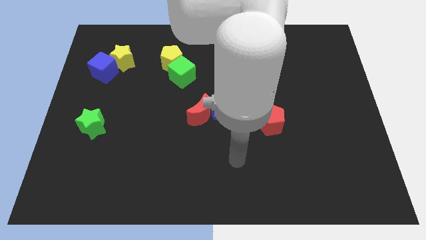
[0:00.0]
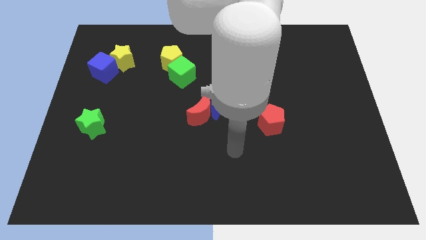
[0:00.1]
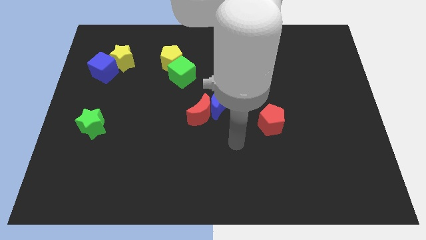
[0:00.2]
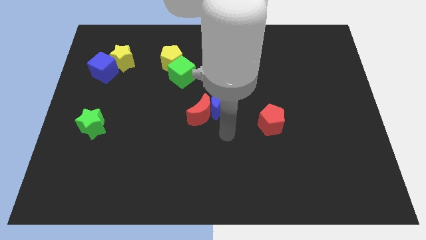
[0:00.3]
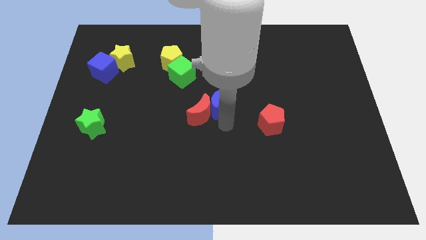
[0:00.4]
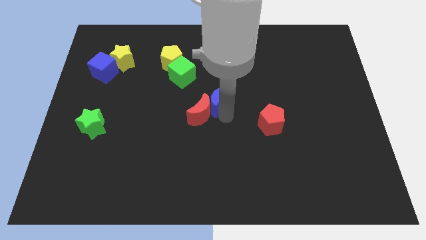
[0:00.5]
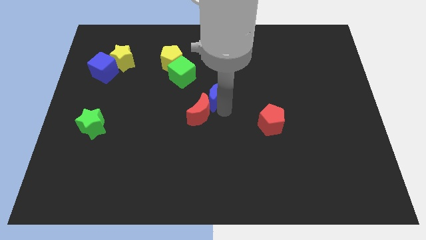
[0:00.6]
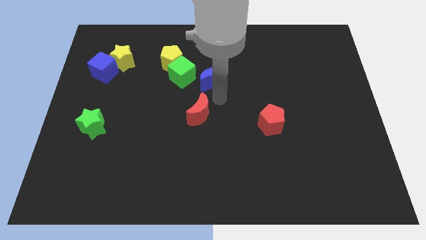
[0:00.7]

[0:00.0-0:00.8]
move the red moon away from the blue moon

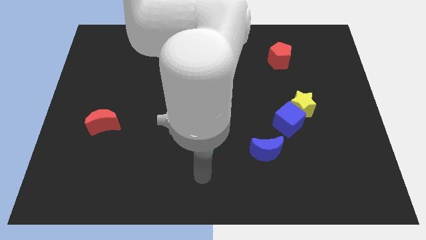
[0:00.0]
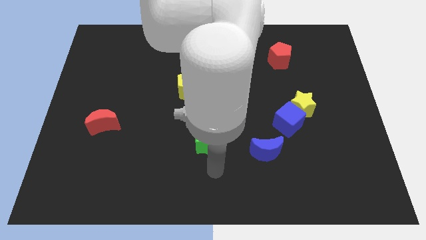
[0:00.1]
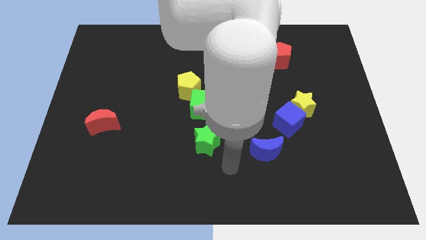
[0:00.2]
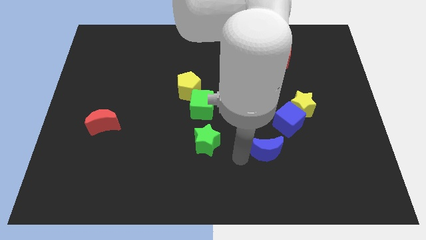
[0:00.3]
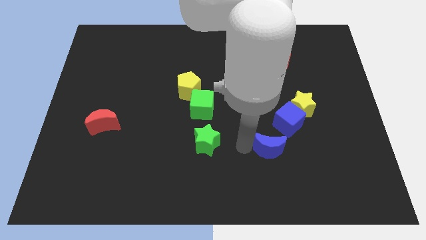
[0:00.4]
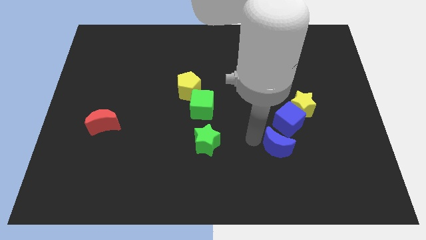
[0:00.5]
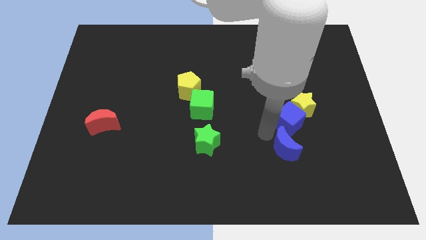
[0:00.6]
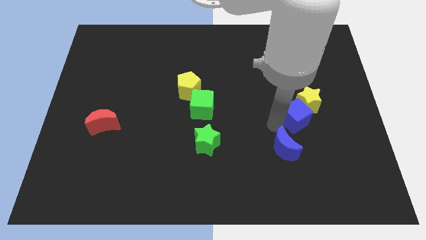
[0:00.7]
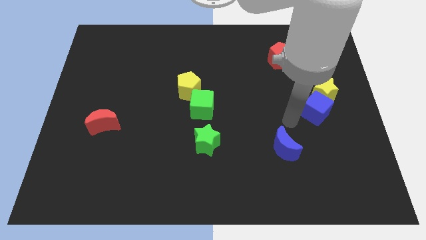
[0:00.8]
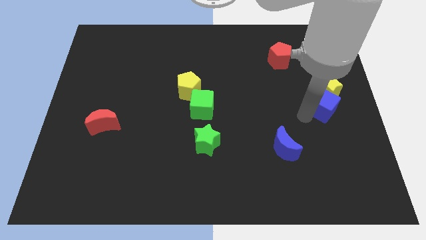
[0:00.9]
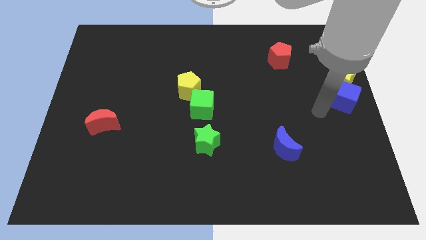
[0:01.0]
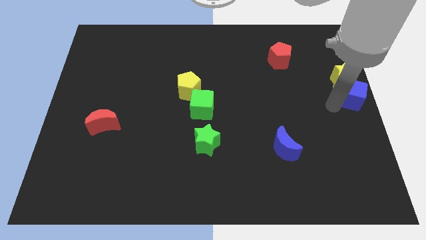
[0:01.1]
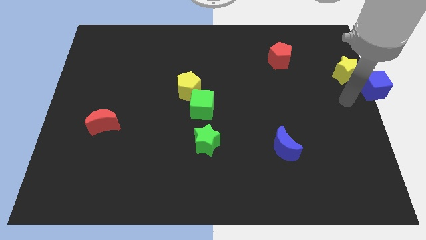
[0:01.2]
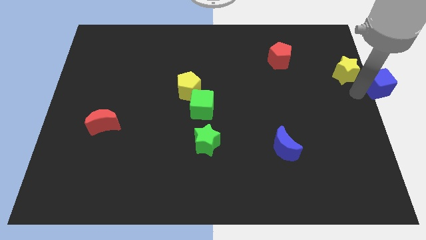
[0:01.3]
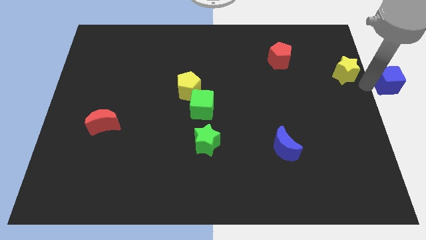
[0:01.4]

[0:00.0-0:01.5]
pull the yellow star apart from the blue cube

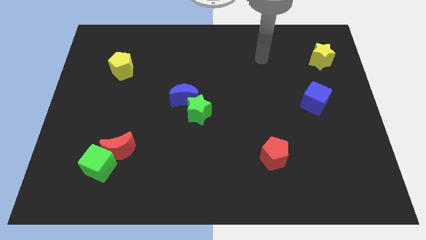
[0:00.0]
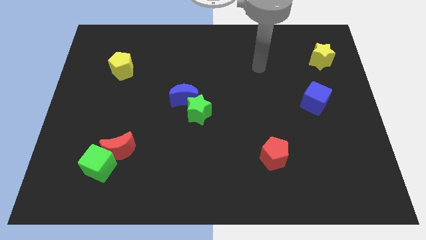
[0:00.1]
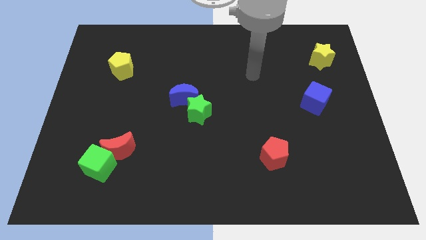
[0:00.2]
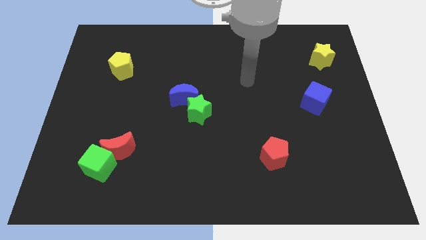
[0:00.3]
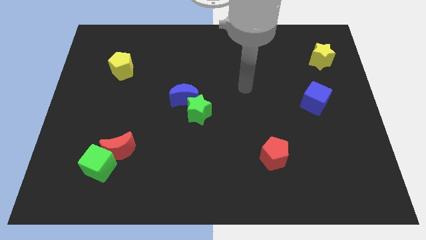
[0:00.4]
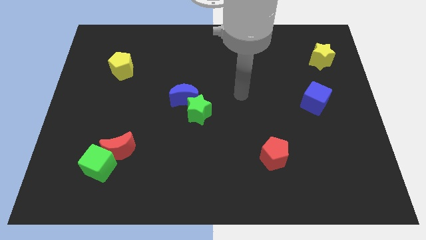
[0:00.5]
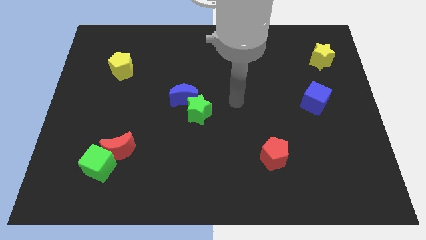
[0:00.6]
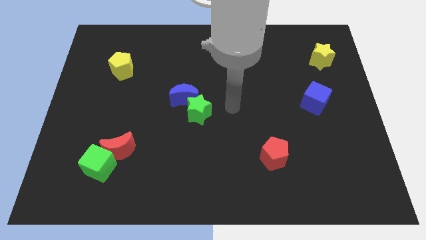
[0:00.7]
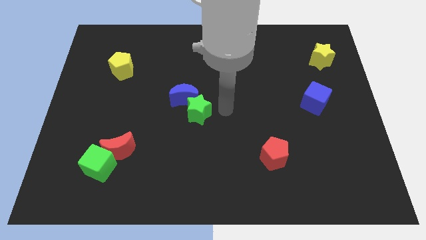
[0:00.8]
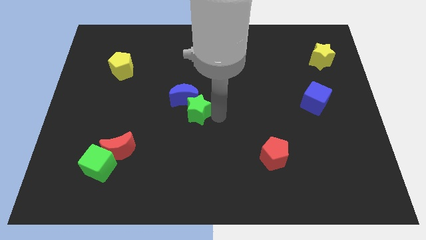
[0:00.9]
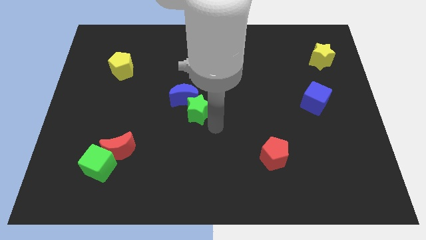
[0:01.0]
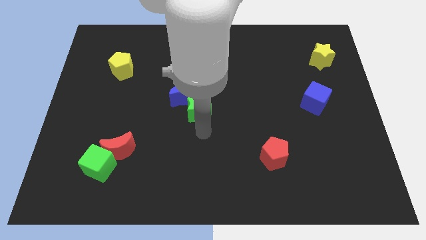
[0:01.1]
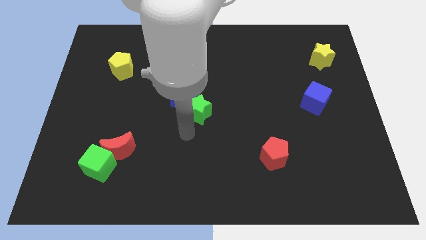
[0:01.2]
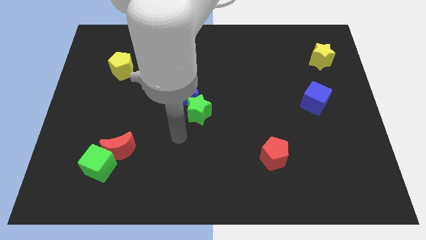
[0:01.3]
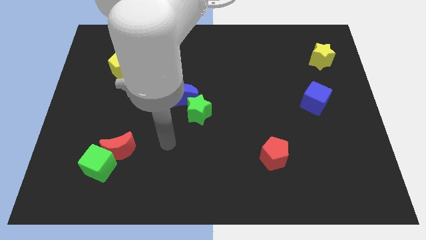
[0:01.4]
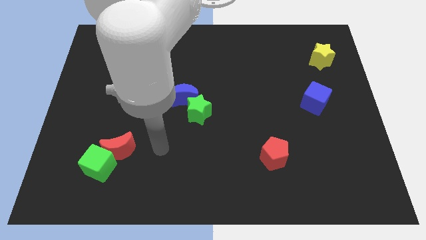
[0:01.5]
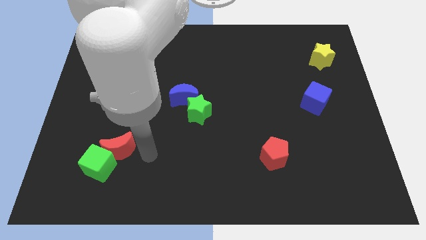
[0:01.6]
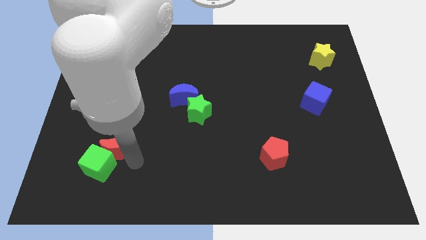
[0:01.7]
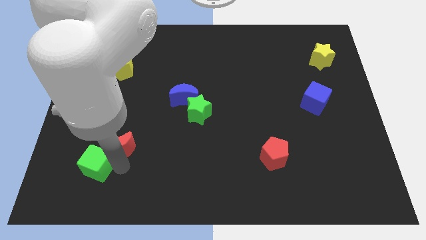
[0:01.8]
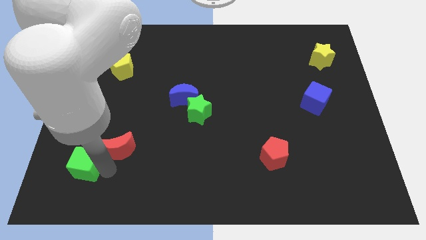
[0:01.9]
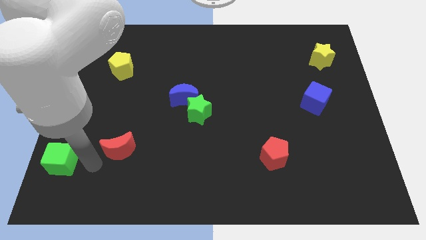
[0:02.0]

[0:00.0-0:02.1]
separate the red moon from the green cube

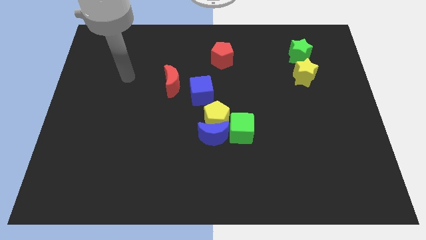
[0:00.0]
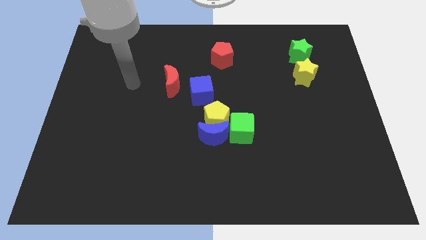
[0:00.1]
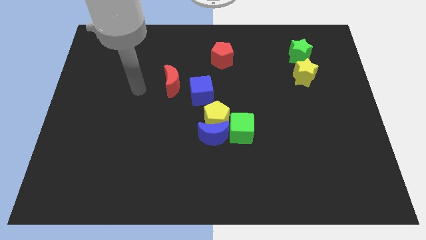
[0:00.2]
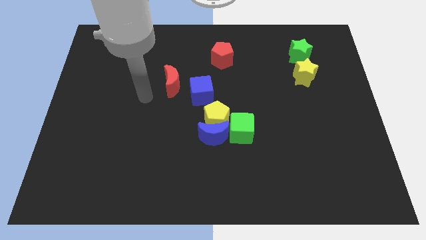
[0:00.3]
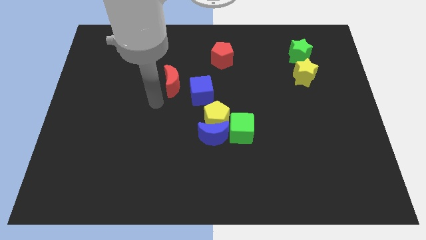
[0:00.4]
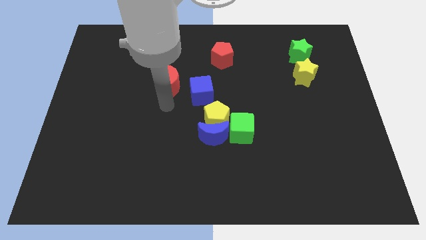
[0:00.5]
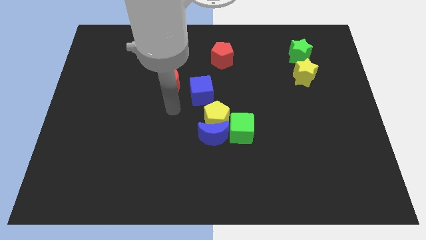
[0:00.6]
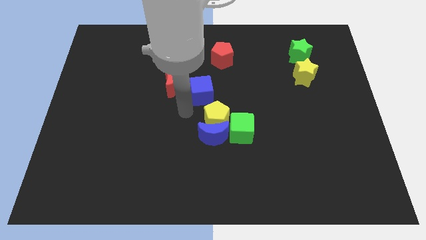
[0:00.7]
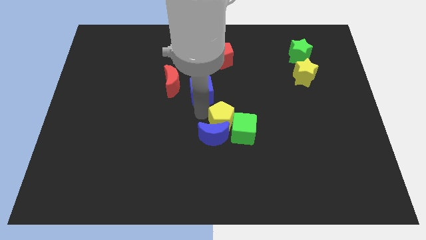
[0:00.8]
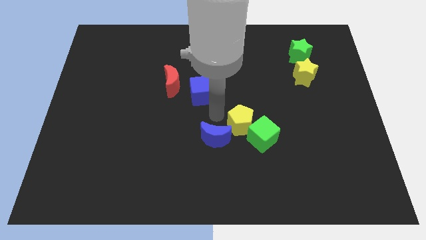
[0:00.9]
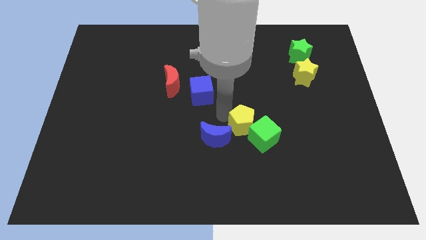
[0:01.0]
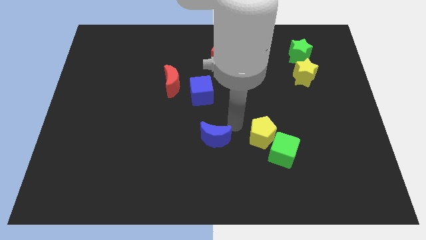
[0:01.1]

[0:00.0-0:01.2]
pull the blue moon apart from the yellow pentagon and green cube

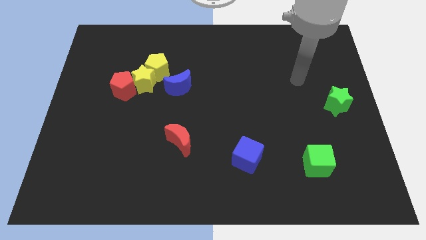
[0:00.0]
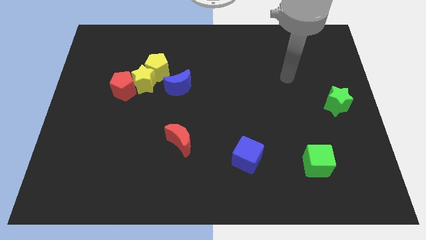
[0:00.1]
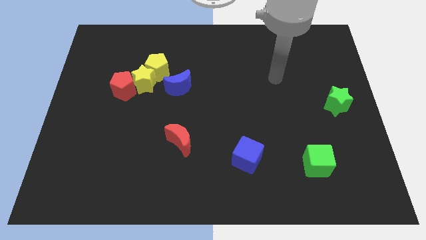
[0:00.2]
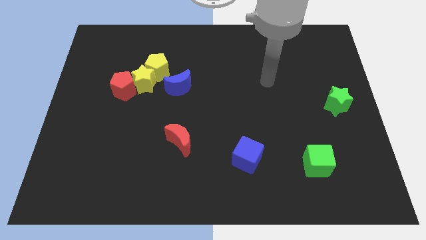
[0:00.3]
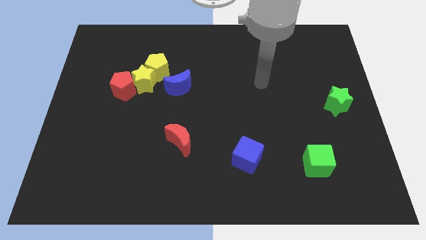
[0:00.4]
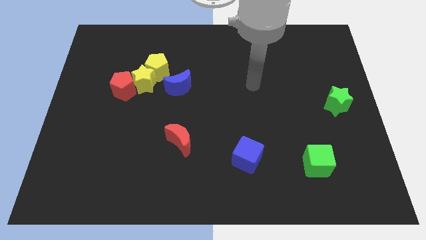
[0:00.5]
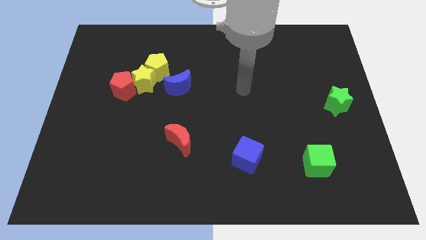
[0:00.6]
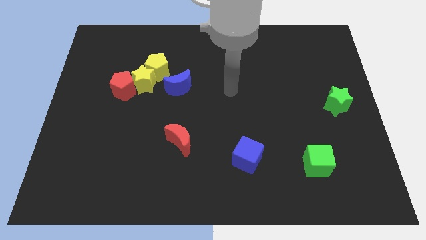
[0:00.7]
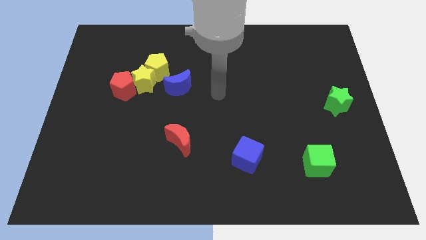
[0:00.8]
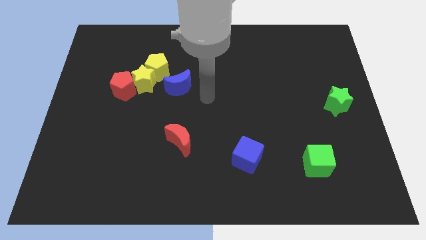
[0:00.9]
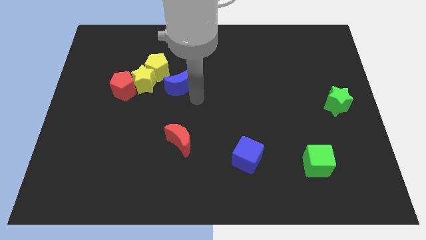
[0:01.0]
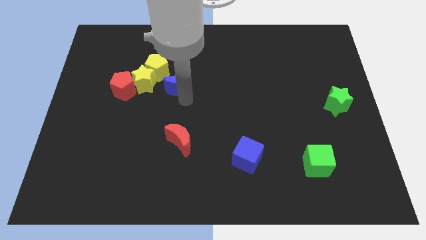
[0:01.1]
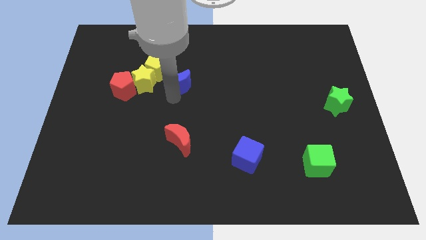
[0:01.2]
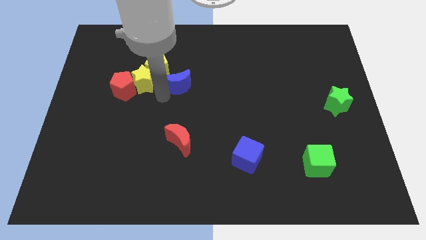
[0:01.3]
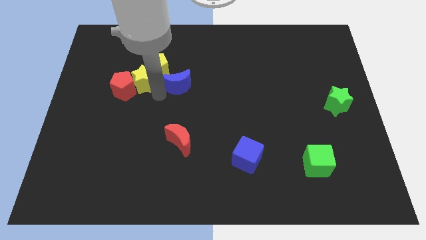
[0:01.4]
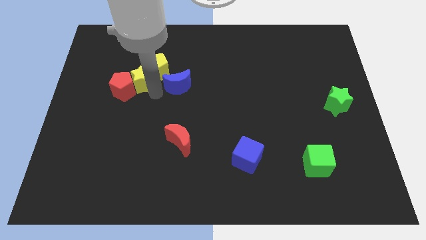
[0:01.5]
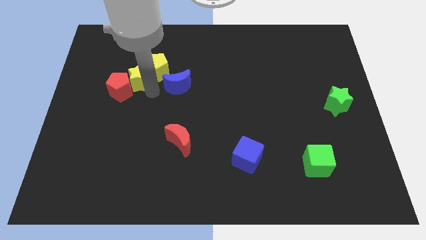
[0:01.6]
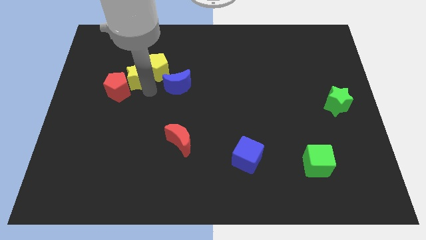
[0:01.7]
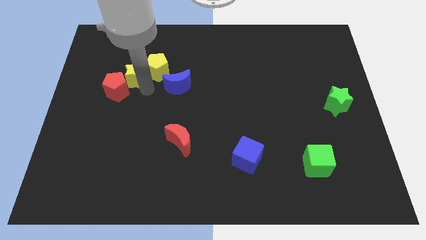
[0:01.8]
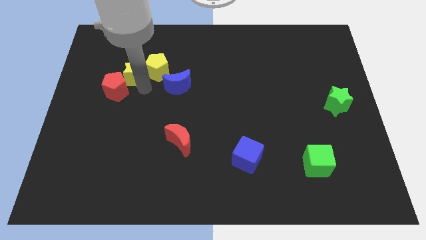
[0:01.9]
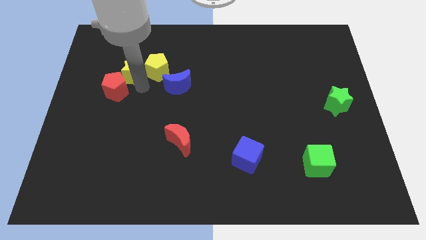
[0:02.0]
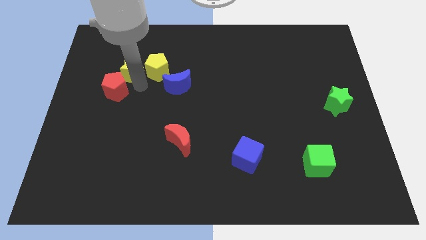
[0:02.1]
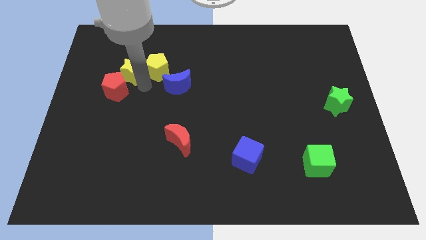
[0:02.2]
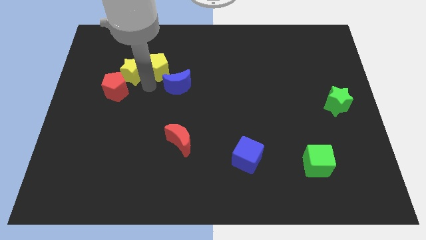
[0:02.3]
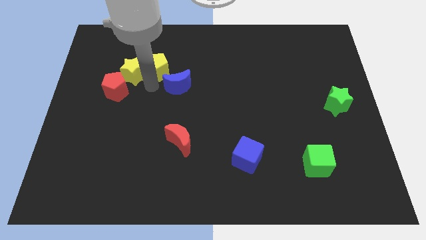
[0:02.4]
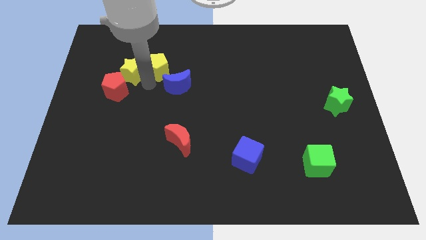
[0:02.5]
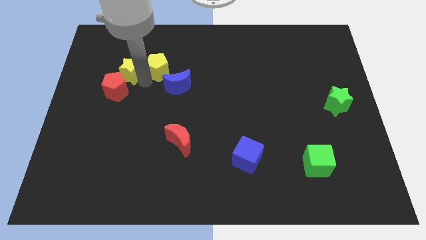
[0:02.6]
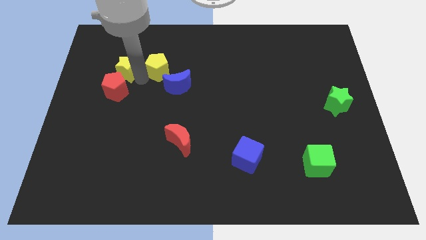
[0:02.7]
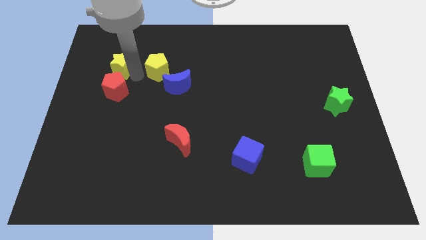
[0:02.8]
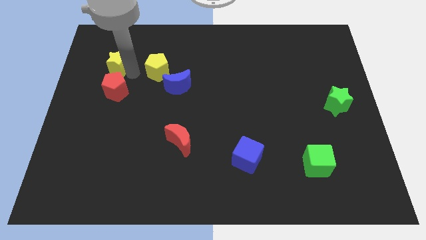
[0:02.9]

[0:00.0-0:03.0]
move the yellow star away from the red pentagon, yellow pentagon, and blue moon

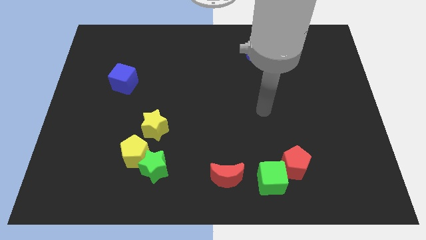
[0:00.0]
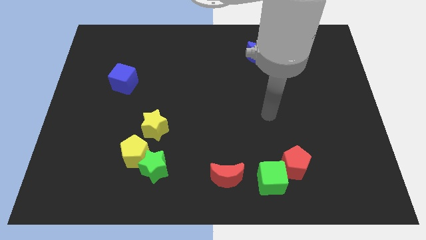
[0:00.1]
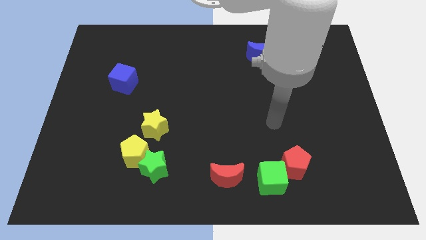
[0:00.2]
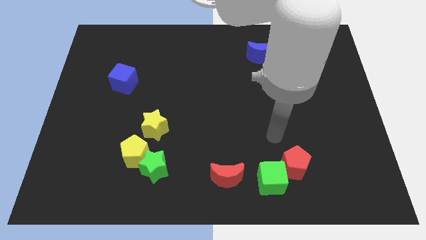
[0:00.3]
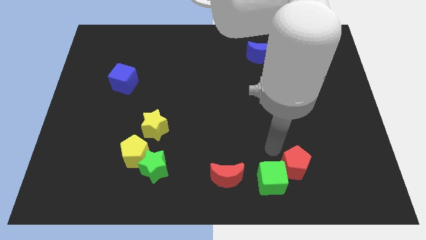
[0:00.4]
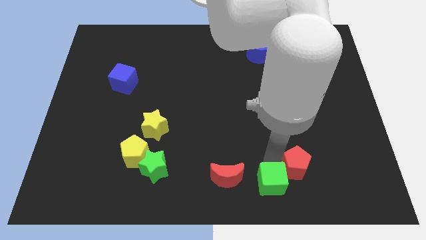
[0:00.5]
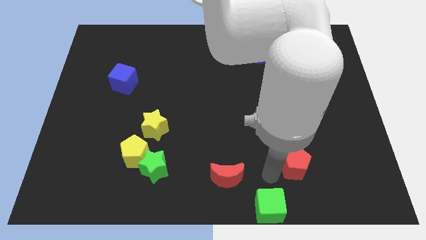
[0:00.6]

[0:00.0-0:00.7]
move the red pentagon away from the green cube

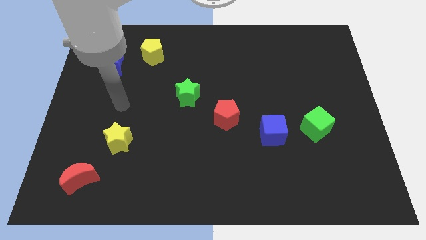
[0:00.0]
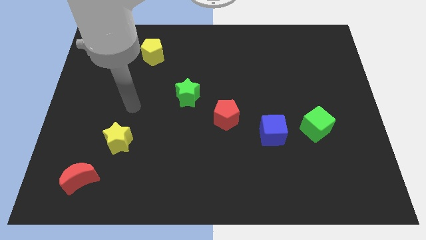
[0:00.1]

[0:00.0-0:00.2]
pull the blue cube apart from the green cube
